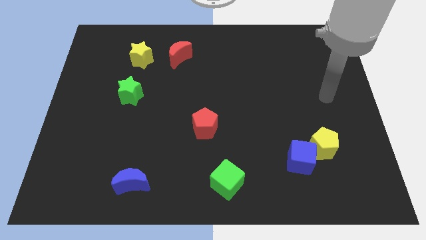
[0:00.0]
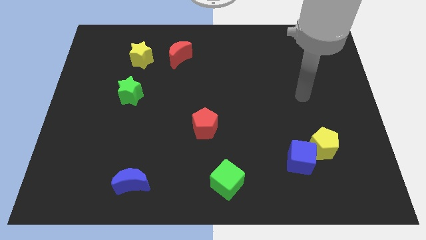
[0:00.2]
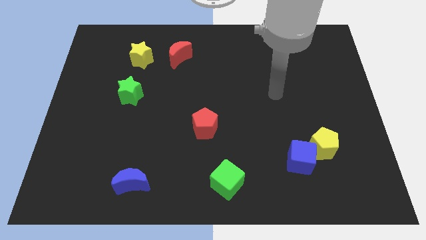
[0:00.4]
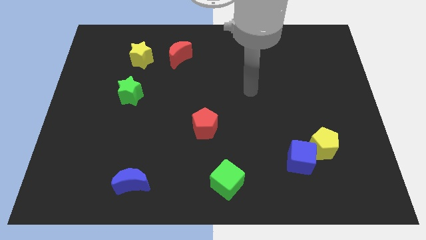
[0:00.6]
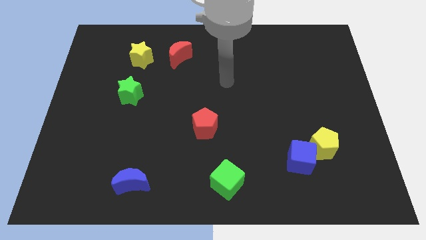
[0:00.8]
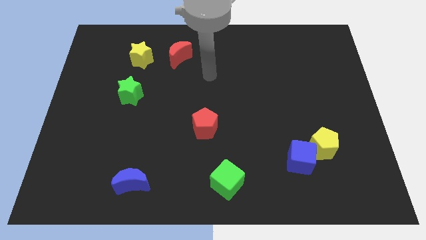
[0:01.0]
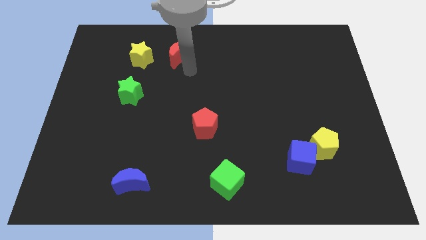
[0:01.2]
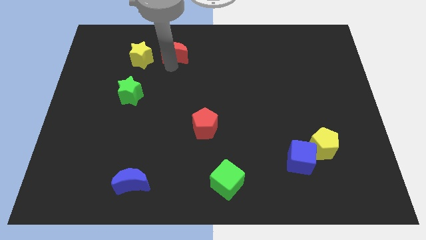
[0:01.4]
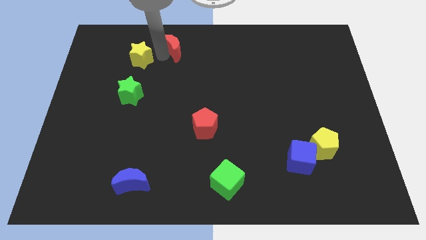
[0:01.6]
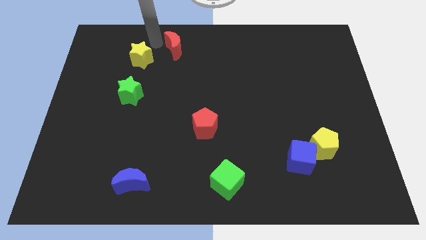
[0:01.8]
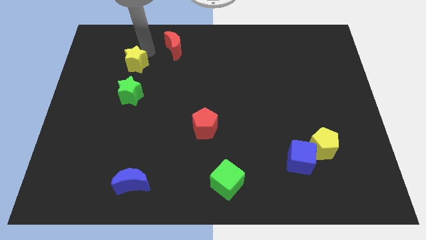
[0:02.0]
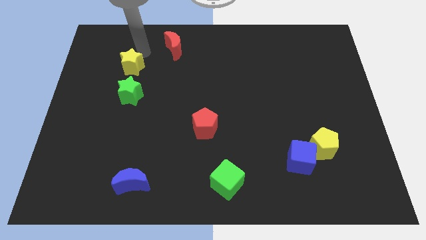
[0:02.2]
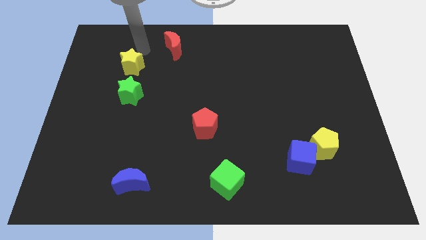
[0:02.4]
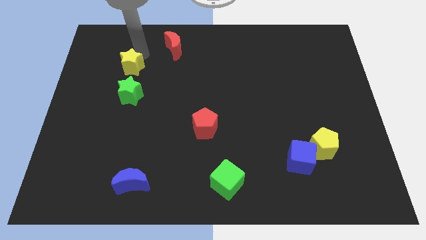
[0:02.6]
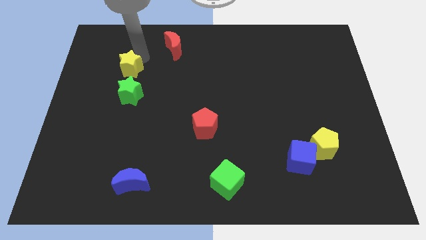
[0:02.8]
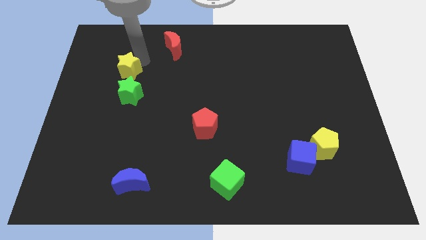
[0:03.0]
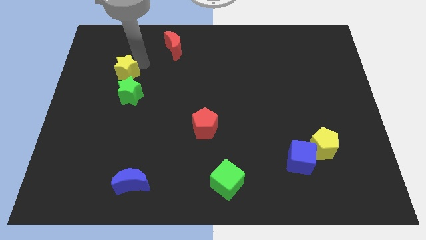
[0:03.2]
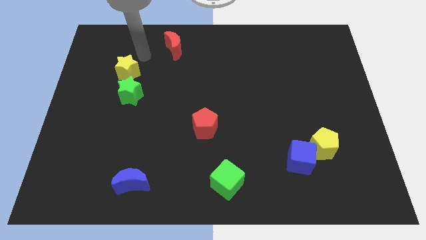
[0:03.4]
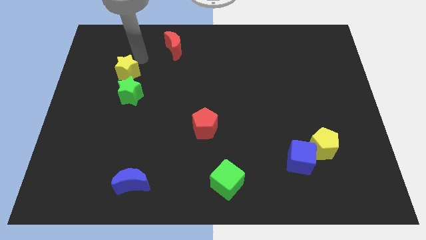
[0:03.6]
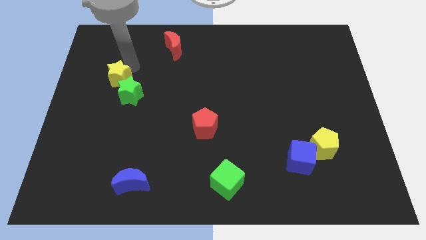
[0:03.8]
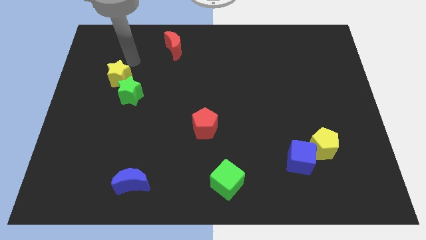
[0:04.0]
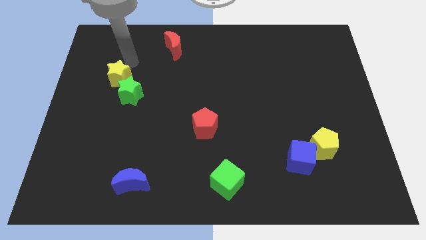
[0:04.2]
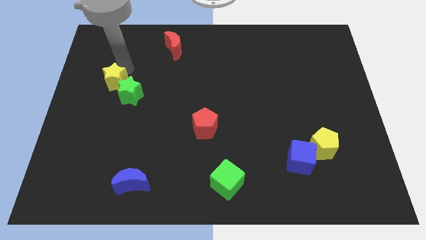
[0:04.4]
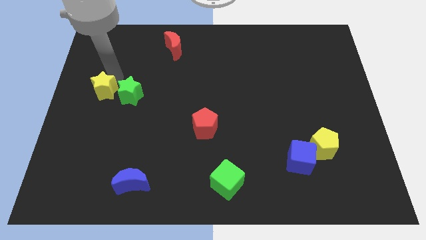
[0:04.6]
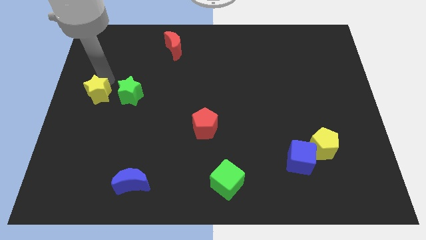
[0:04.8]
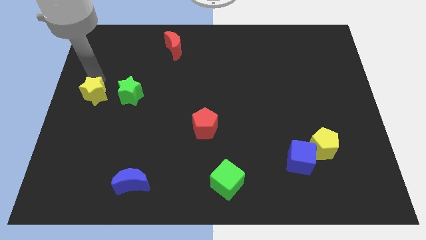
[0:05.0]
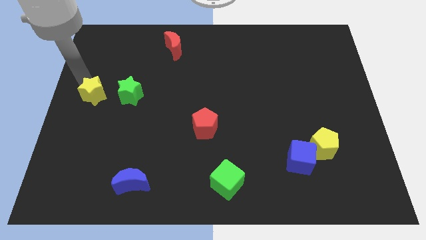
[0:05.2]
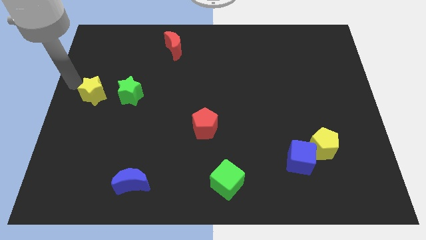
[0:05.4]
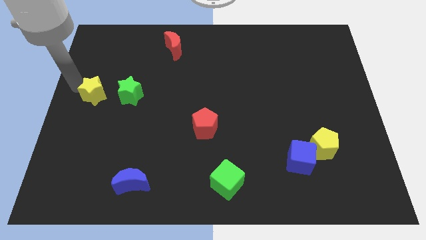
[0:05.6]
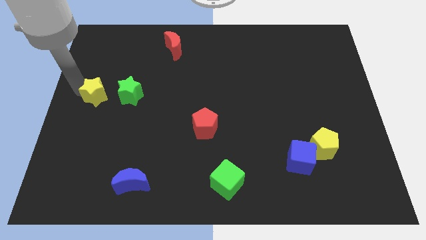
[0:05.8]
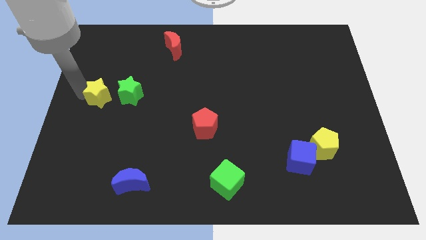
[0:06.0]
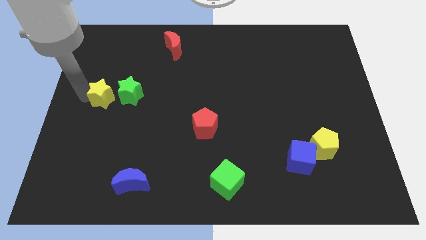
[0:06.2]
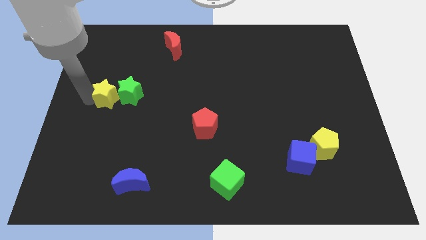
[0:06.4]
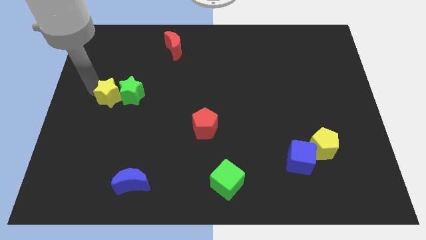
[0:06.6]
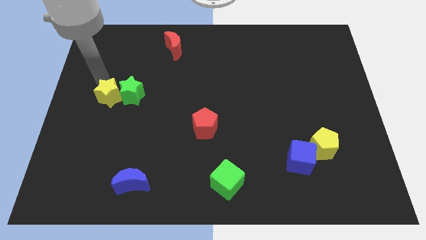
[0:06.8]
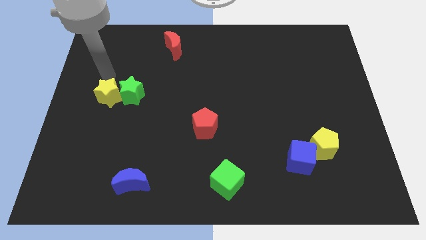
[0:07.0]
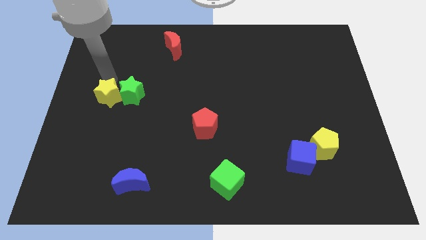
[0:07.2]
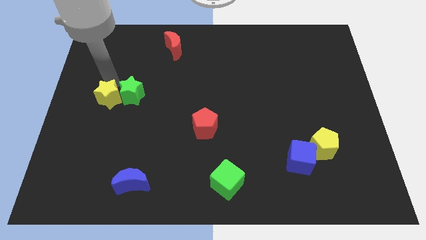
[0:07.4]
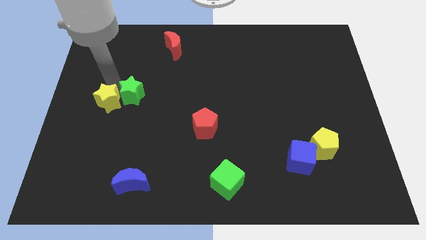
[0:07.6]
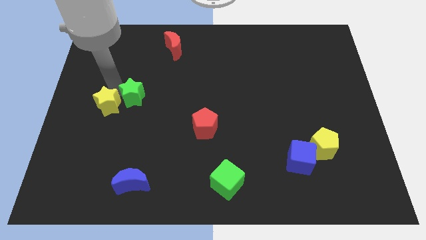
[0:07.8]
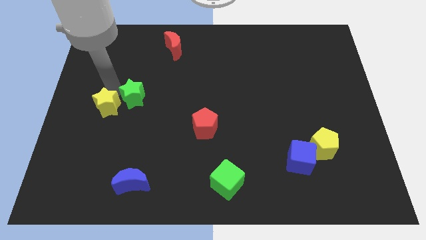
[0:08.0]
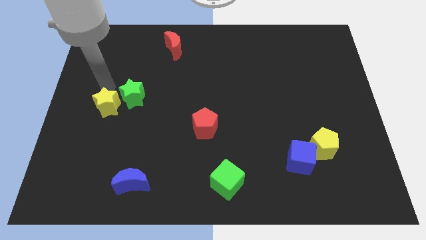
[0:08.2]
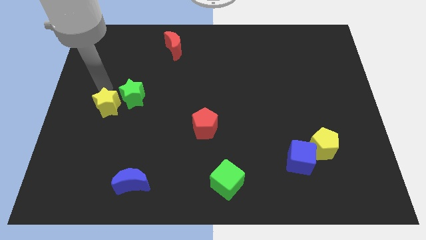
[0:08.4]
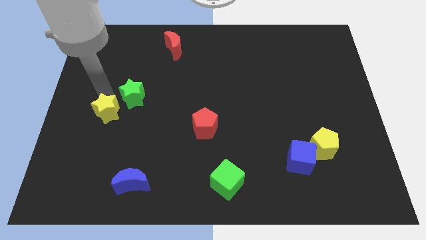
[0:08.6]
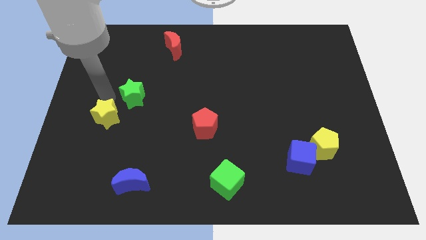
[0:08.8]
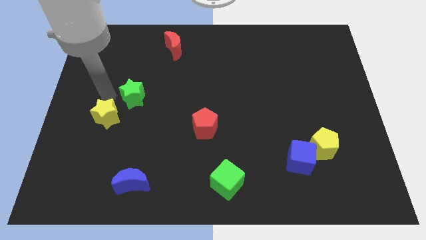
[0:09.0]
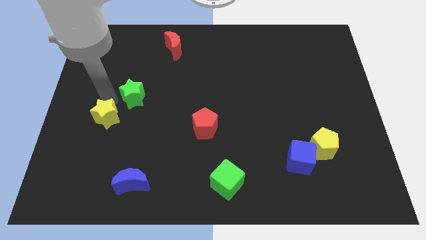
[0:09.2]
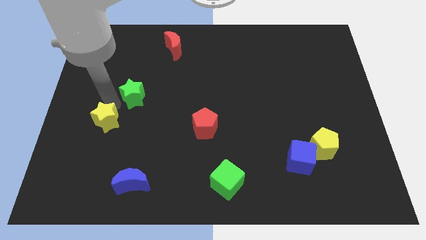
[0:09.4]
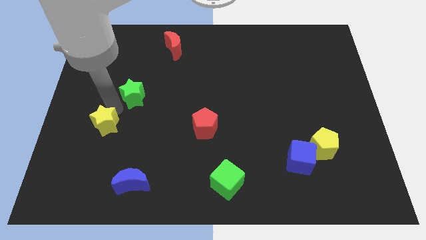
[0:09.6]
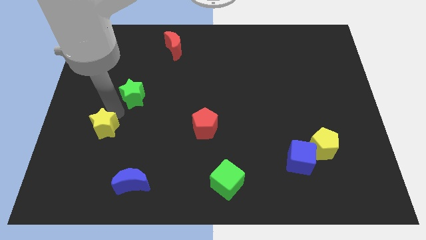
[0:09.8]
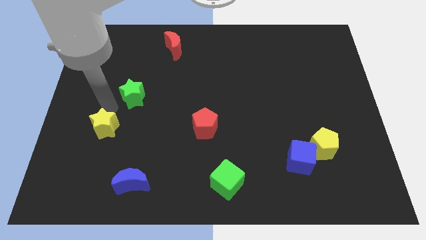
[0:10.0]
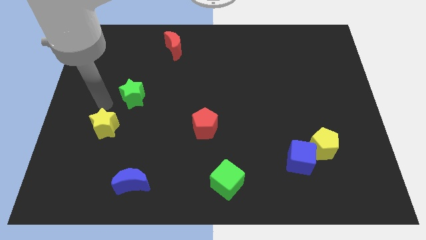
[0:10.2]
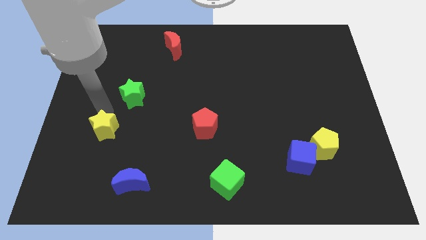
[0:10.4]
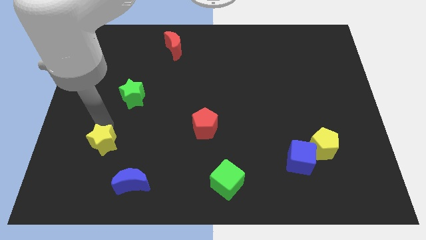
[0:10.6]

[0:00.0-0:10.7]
slide the yellow star diagonally up and to the left of the blue moon

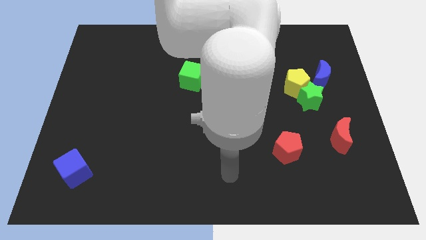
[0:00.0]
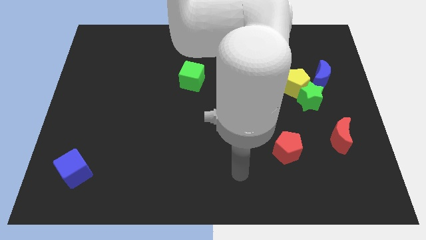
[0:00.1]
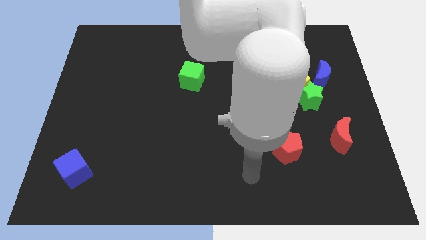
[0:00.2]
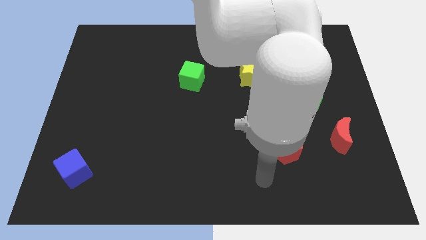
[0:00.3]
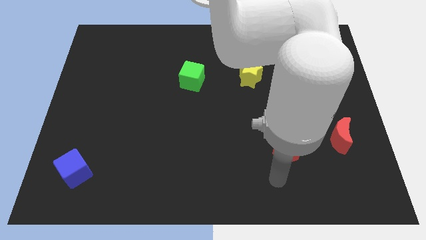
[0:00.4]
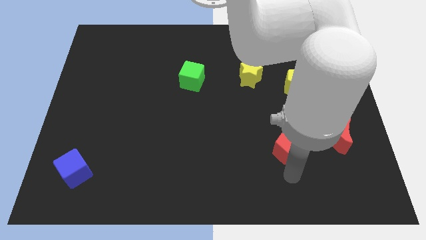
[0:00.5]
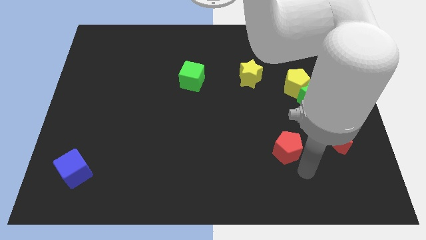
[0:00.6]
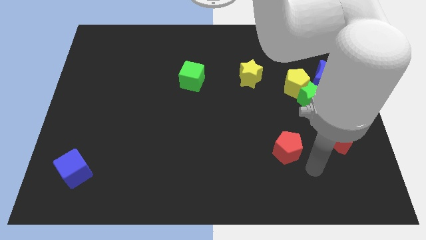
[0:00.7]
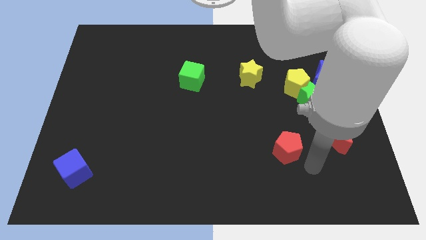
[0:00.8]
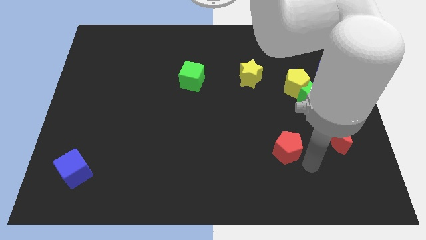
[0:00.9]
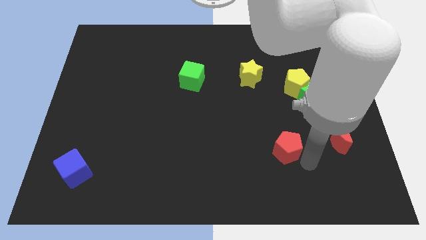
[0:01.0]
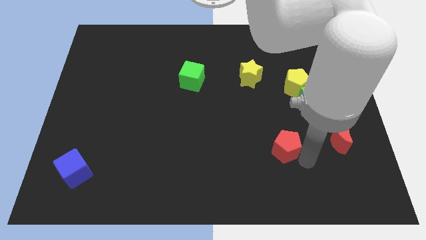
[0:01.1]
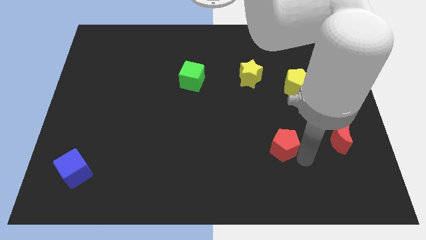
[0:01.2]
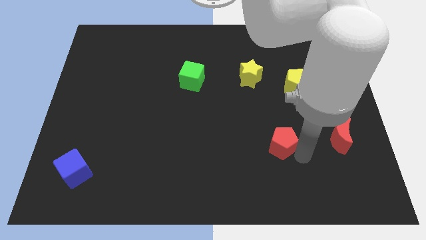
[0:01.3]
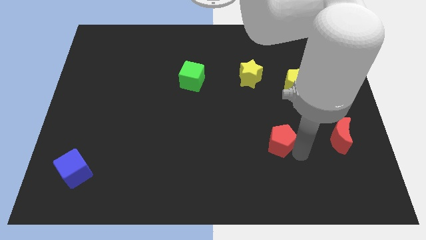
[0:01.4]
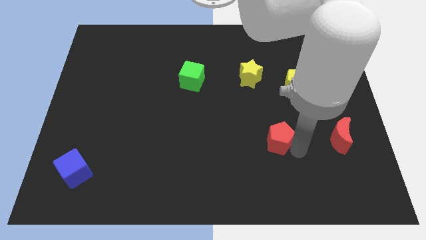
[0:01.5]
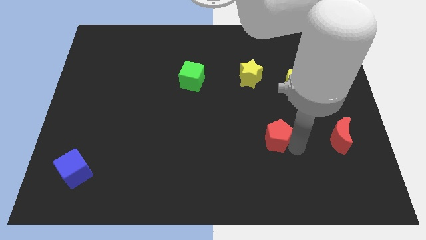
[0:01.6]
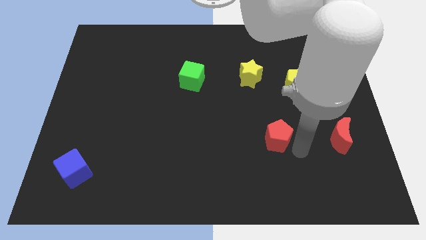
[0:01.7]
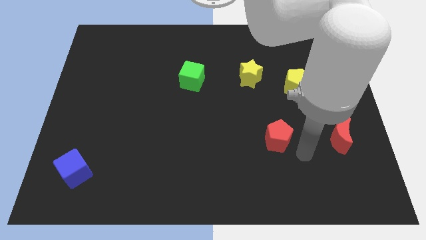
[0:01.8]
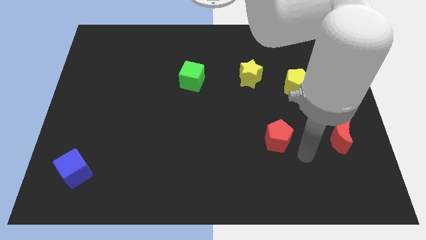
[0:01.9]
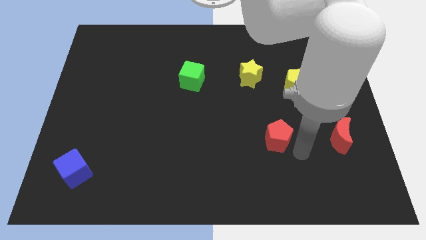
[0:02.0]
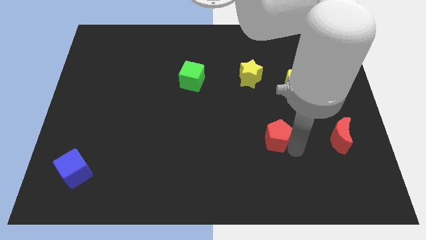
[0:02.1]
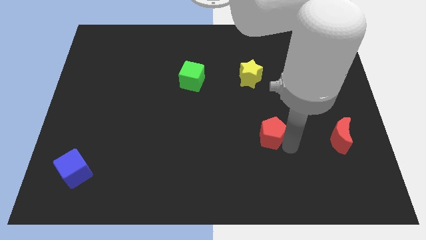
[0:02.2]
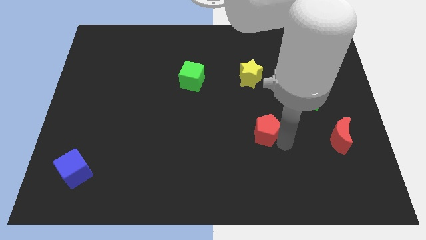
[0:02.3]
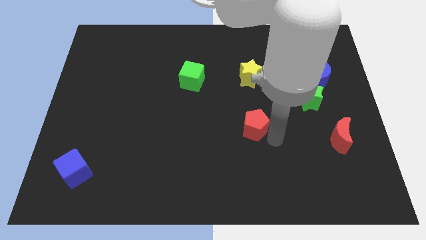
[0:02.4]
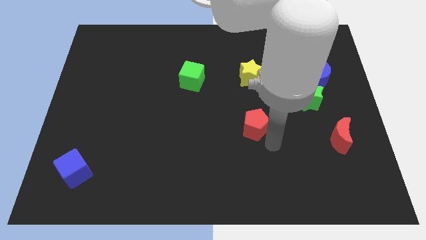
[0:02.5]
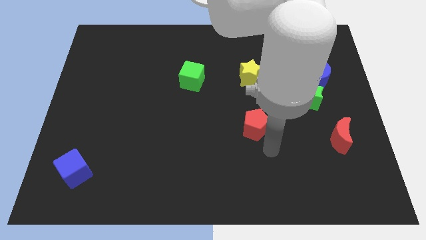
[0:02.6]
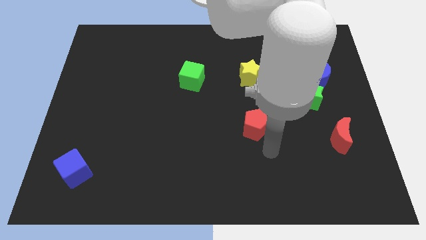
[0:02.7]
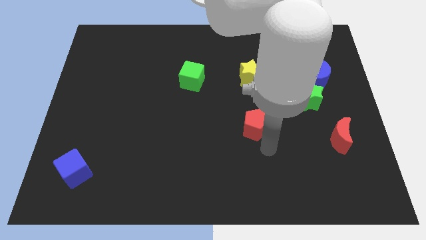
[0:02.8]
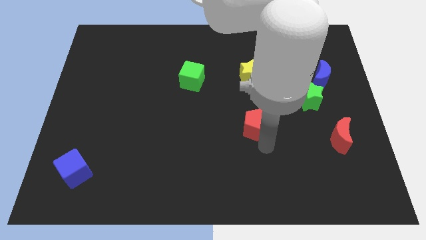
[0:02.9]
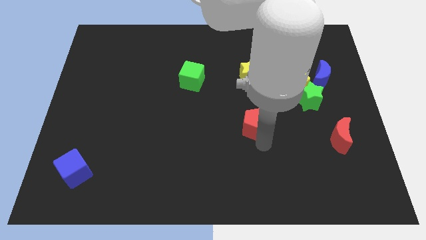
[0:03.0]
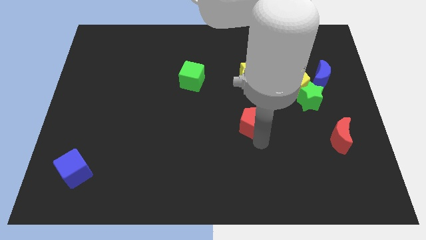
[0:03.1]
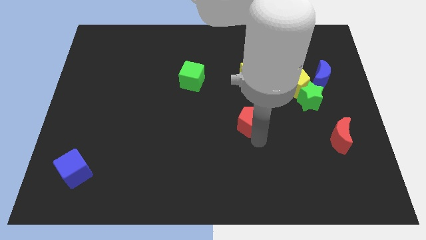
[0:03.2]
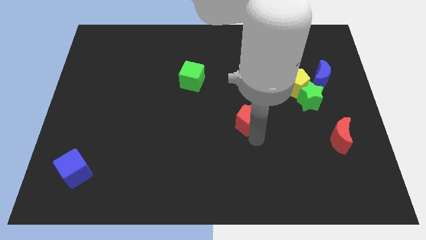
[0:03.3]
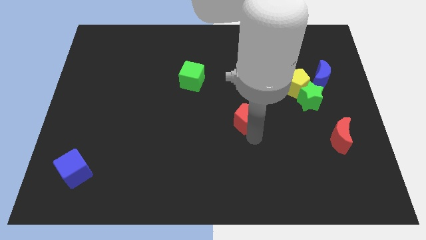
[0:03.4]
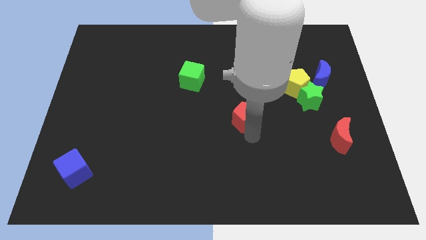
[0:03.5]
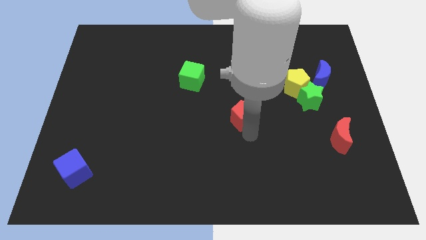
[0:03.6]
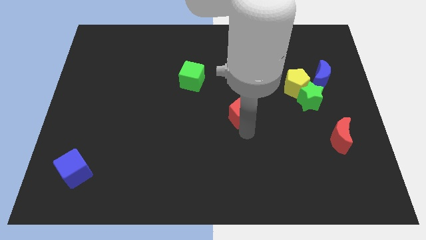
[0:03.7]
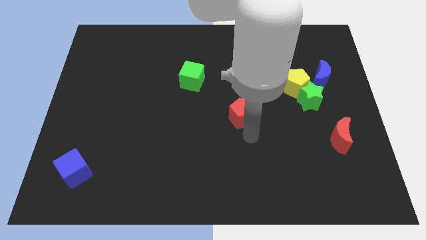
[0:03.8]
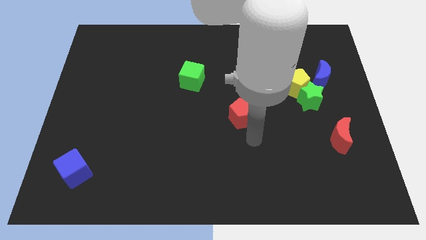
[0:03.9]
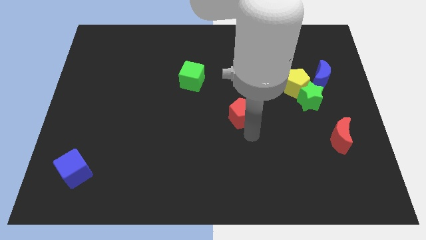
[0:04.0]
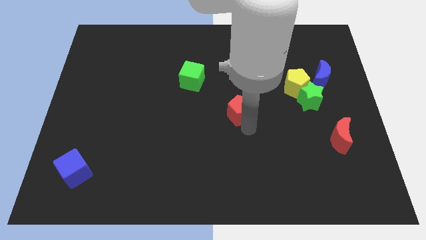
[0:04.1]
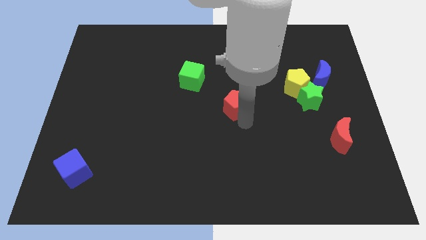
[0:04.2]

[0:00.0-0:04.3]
move the red pentagon diagonally down and to the left of the yellow star
